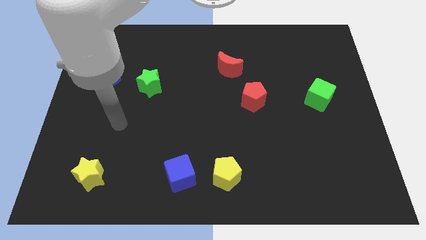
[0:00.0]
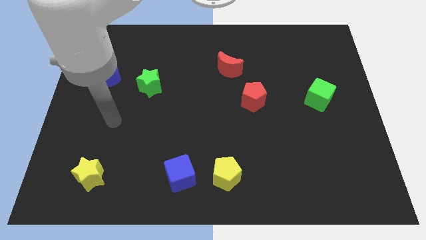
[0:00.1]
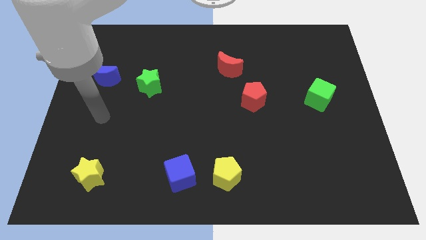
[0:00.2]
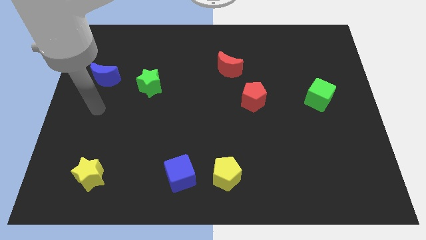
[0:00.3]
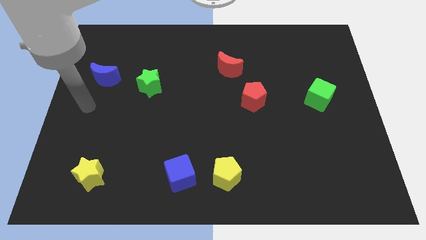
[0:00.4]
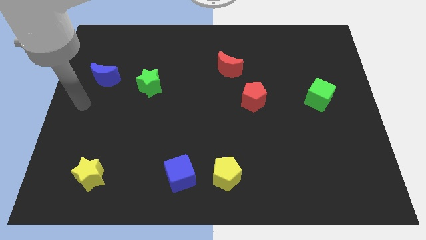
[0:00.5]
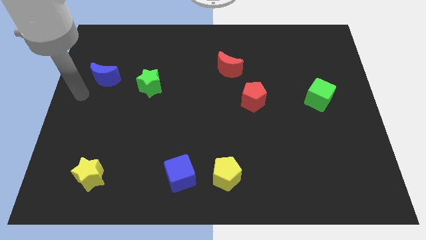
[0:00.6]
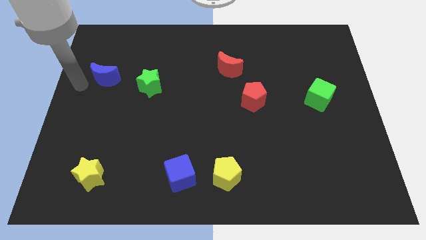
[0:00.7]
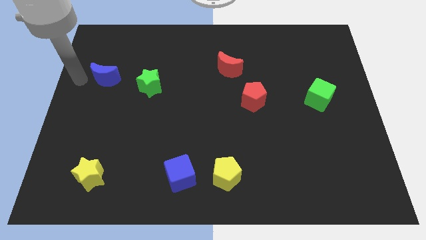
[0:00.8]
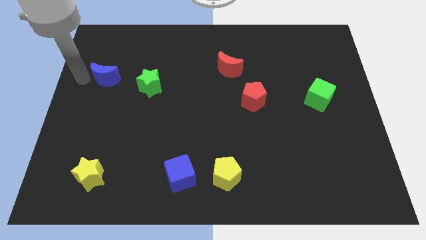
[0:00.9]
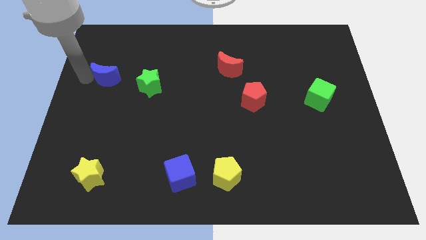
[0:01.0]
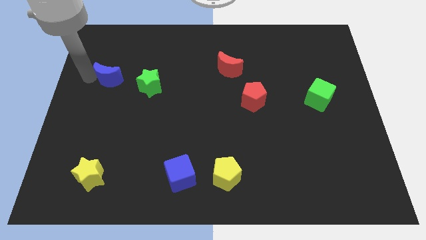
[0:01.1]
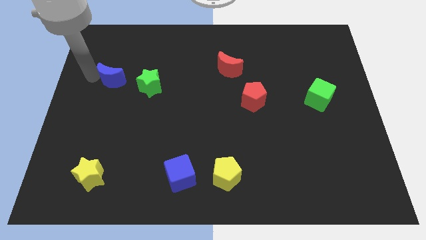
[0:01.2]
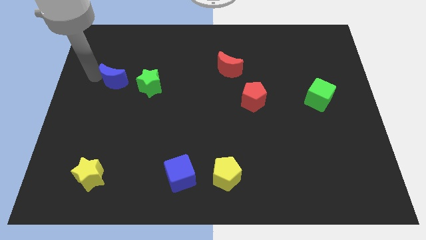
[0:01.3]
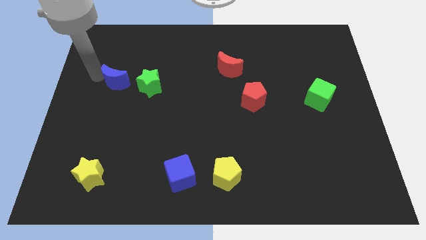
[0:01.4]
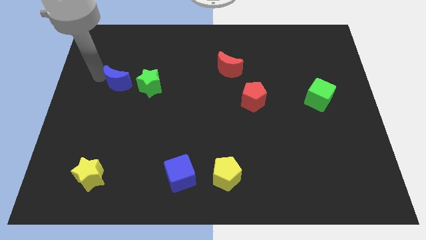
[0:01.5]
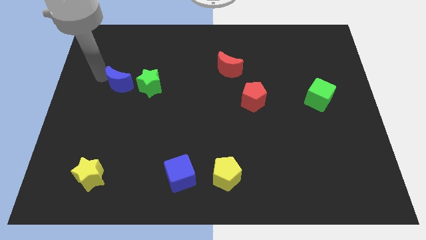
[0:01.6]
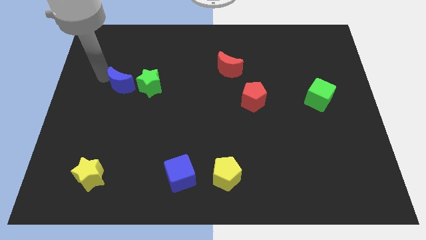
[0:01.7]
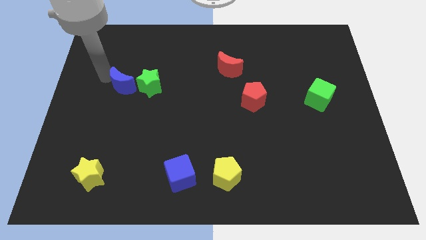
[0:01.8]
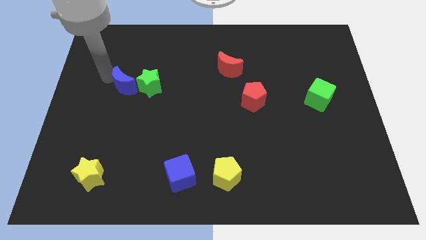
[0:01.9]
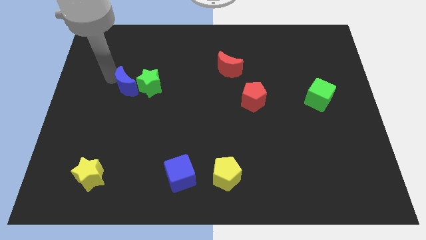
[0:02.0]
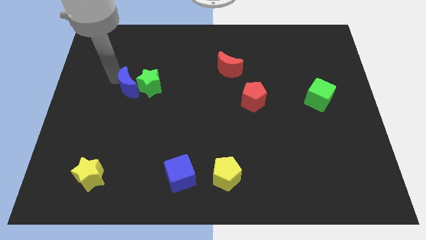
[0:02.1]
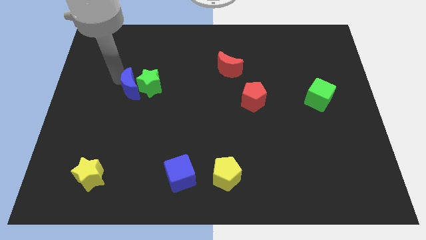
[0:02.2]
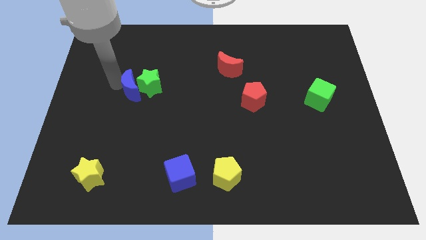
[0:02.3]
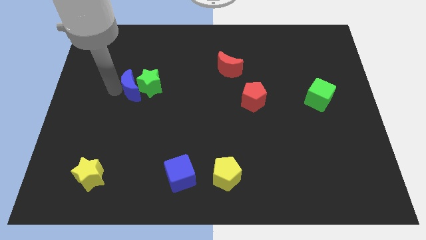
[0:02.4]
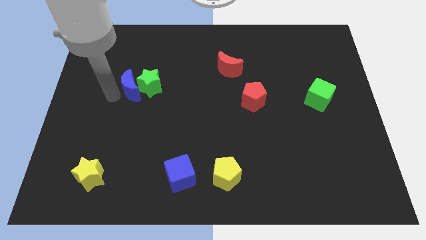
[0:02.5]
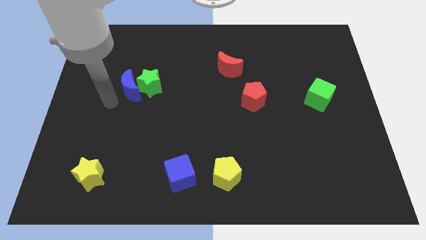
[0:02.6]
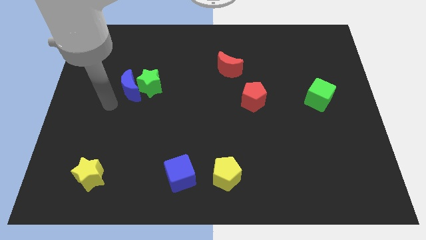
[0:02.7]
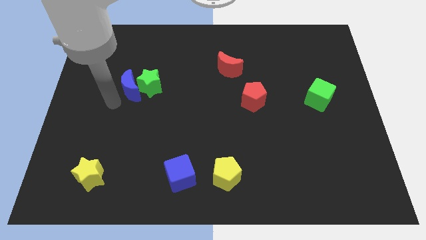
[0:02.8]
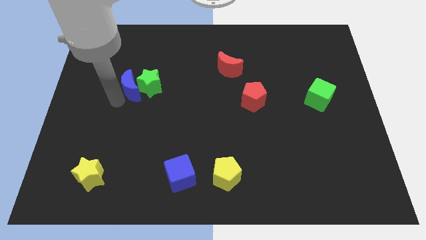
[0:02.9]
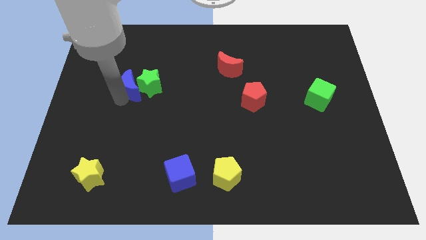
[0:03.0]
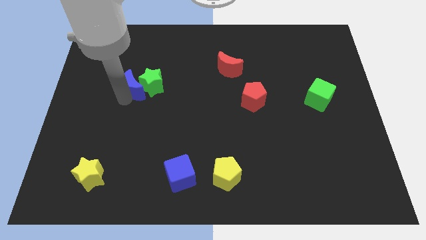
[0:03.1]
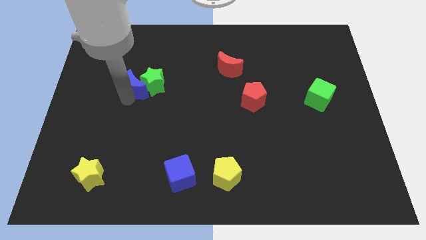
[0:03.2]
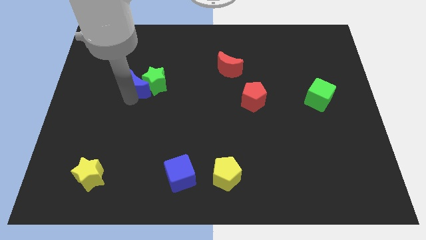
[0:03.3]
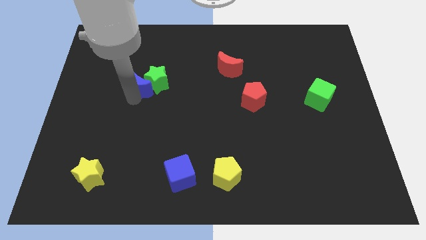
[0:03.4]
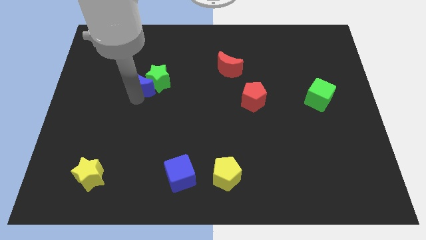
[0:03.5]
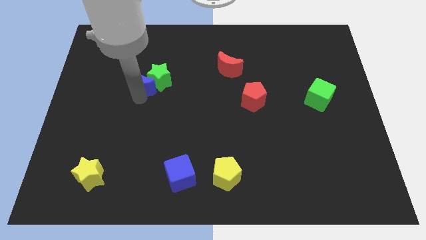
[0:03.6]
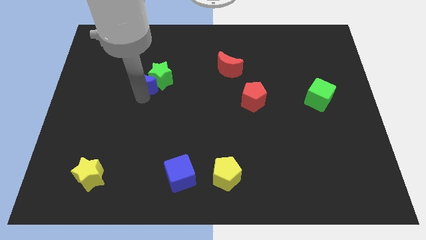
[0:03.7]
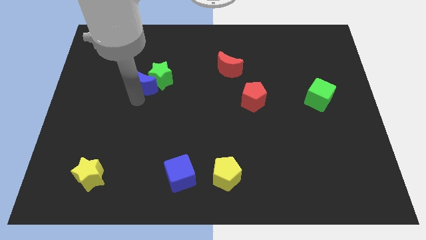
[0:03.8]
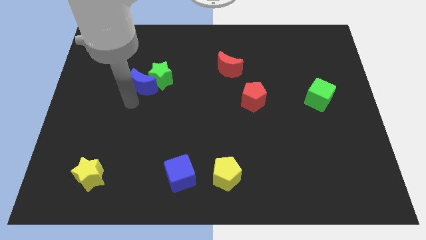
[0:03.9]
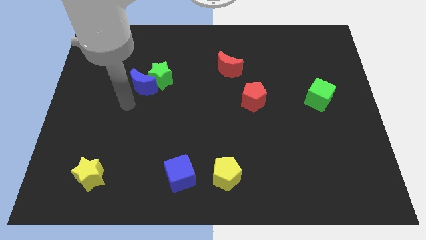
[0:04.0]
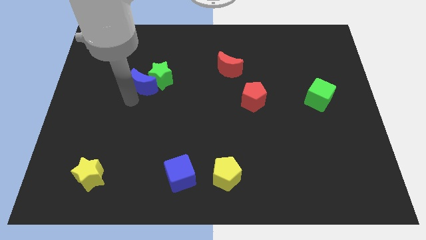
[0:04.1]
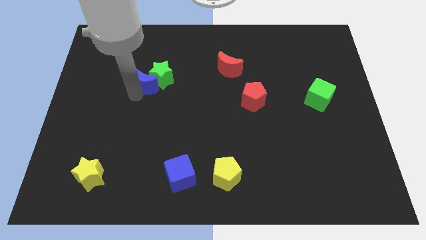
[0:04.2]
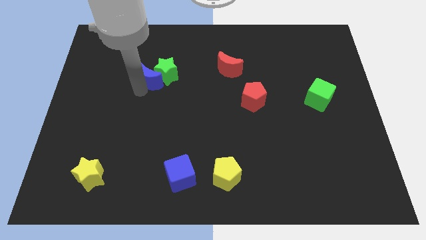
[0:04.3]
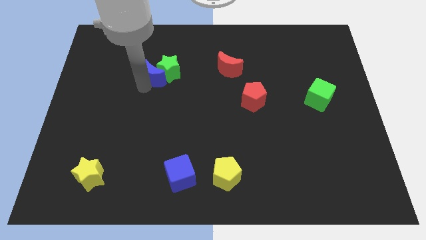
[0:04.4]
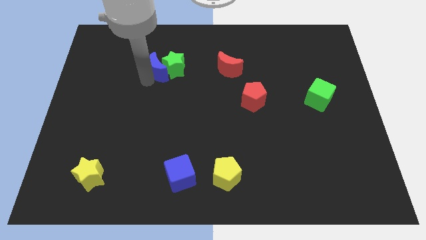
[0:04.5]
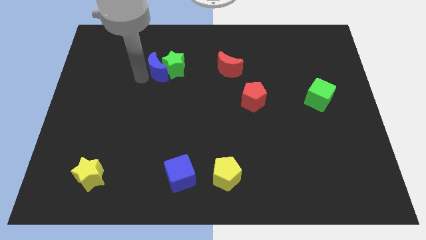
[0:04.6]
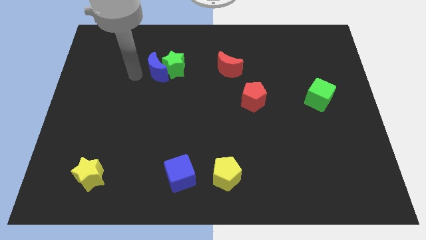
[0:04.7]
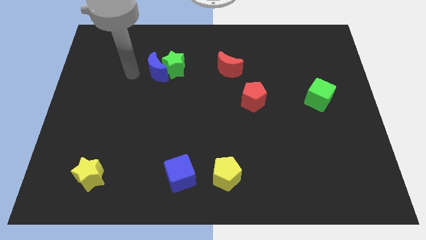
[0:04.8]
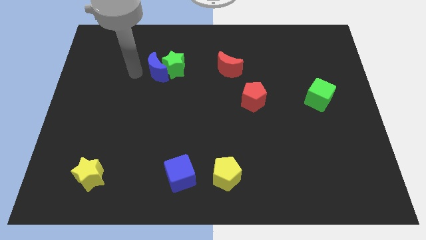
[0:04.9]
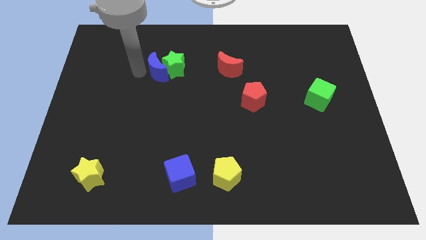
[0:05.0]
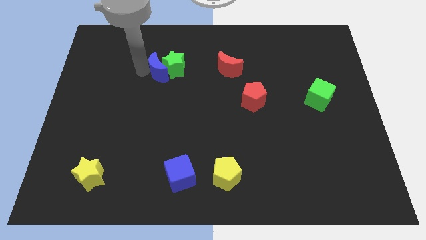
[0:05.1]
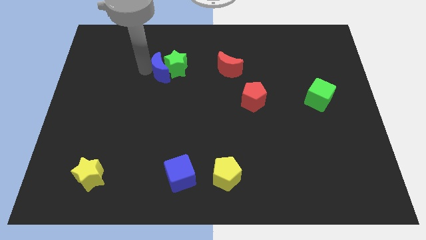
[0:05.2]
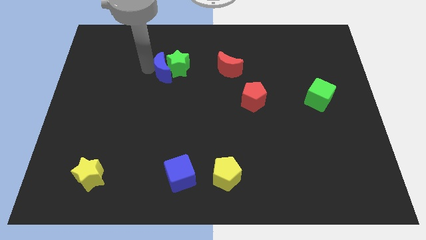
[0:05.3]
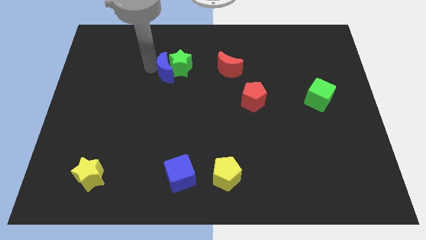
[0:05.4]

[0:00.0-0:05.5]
put the blue moon left of the red moon

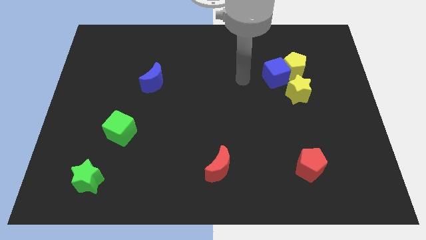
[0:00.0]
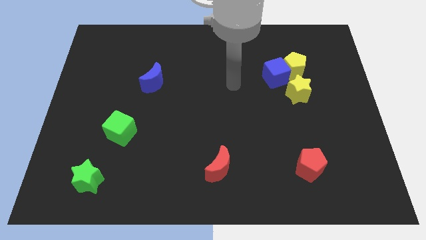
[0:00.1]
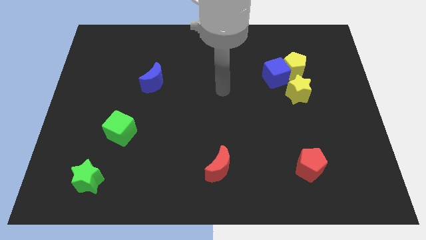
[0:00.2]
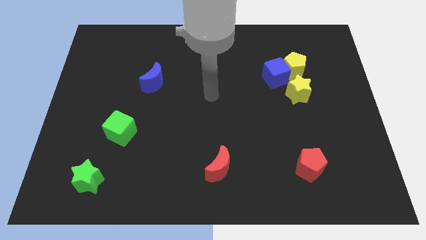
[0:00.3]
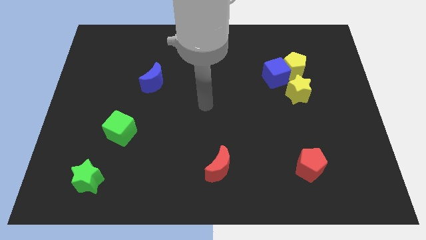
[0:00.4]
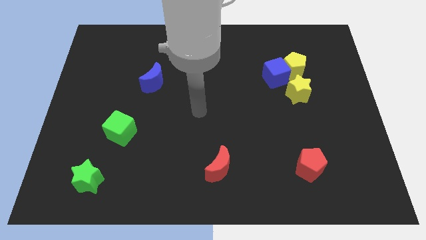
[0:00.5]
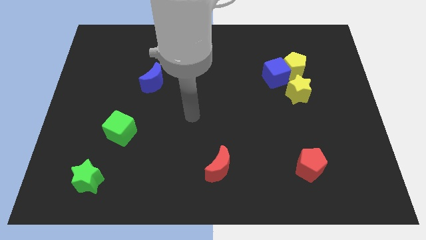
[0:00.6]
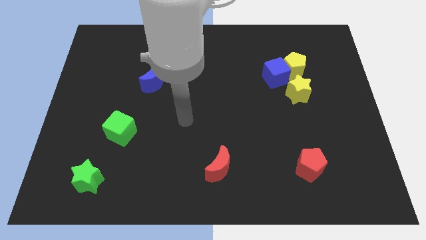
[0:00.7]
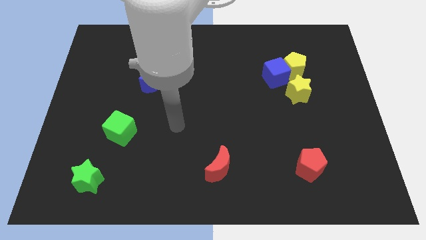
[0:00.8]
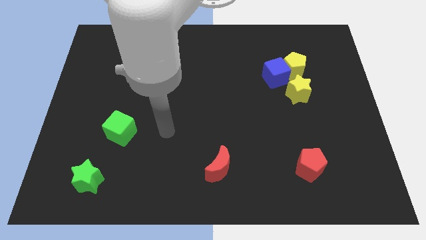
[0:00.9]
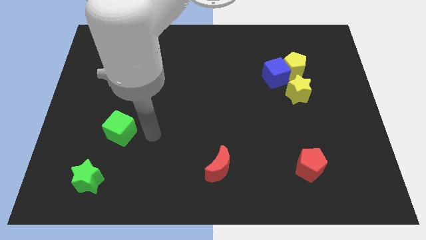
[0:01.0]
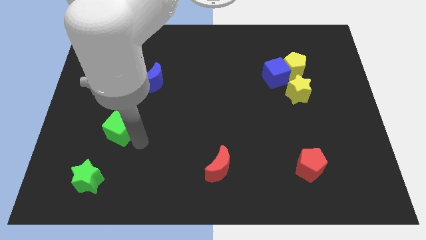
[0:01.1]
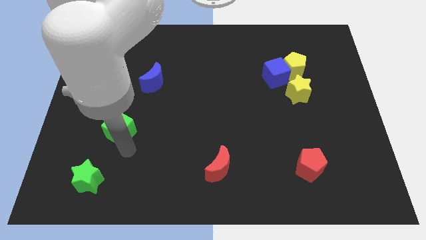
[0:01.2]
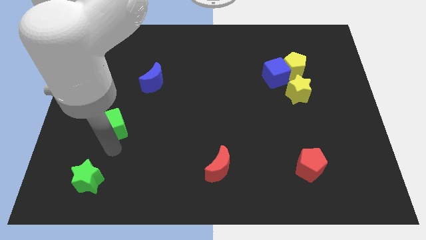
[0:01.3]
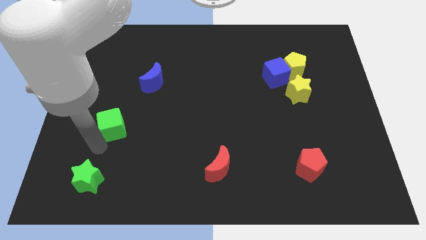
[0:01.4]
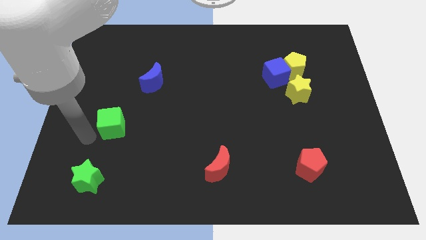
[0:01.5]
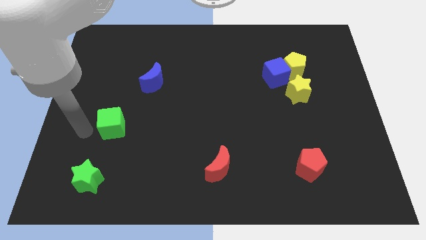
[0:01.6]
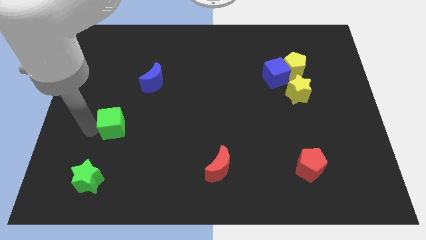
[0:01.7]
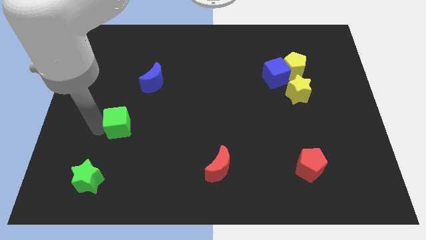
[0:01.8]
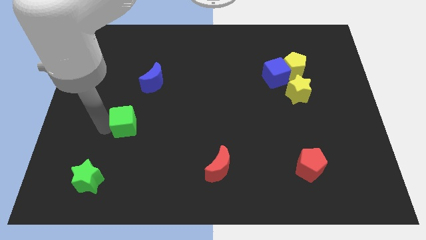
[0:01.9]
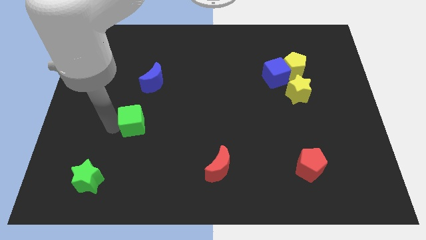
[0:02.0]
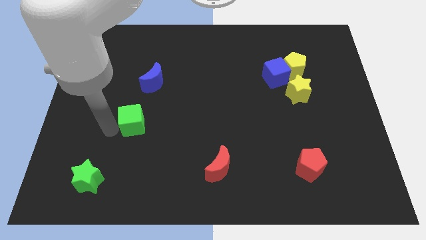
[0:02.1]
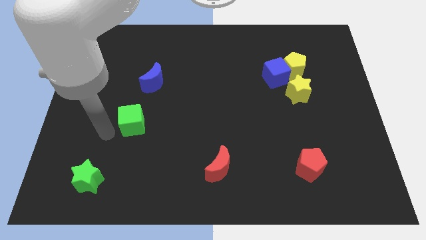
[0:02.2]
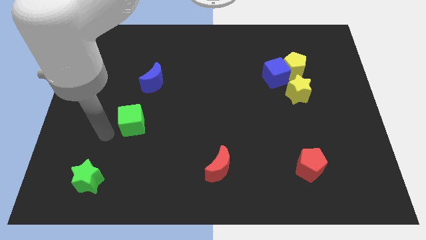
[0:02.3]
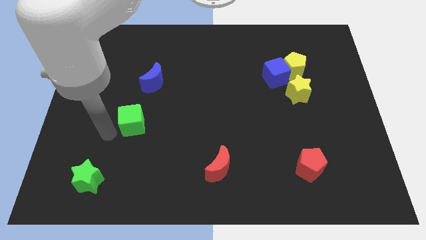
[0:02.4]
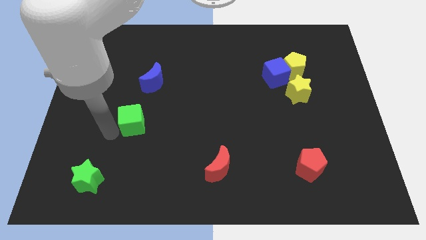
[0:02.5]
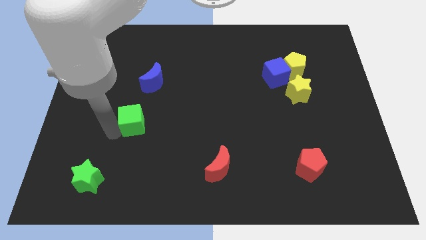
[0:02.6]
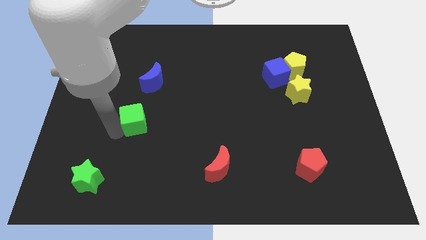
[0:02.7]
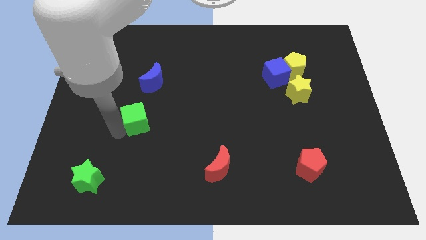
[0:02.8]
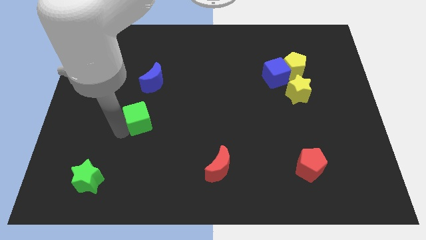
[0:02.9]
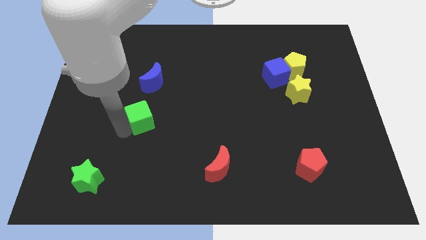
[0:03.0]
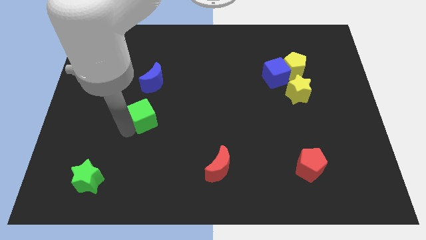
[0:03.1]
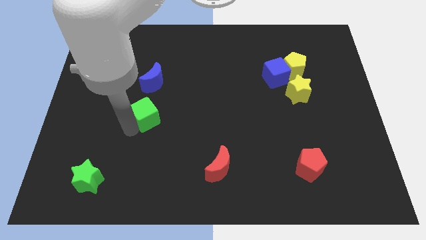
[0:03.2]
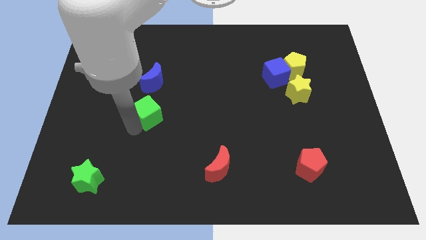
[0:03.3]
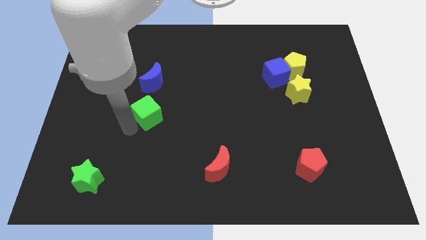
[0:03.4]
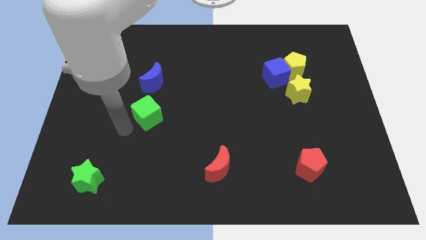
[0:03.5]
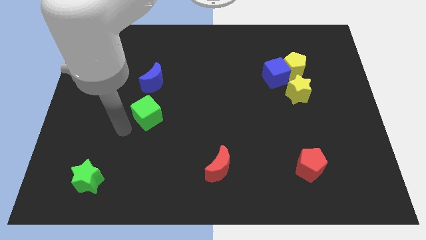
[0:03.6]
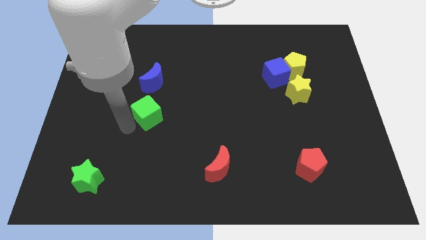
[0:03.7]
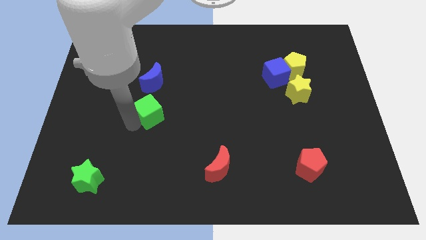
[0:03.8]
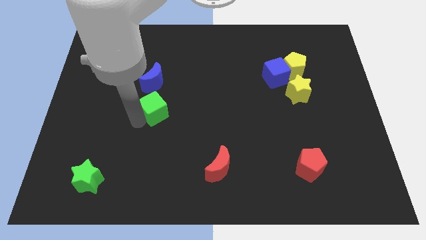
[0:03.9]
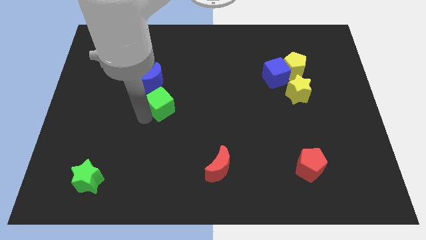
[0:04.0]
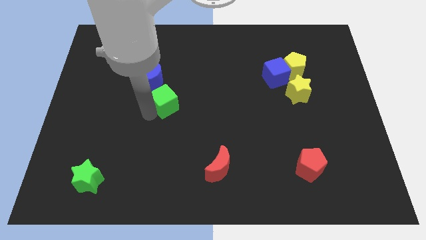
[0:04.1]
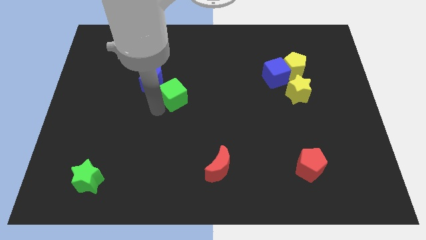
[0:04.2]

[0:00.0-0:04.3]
slide the green cube right of the blue moon
